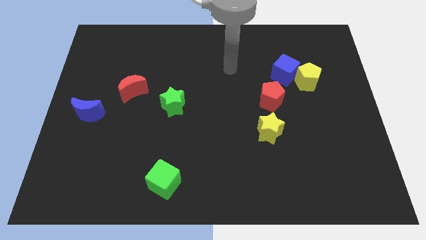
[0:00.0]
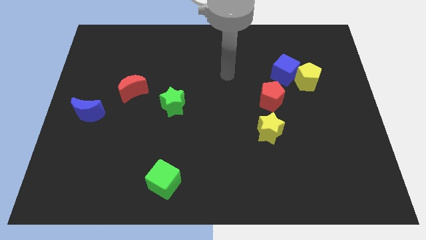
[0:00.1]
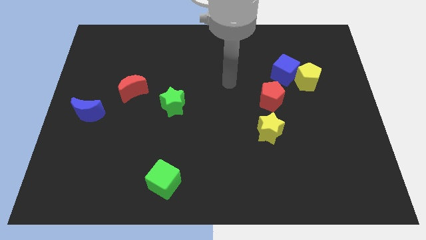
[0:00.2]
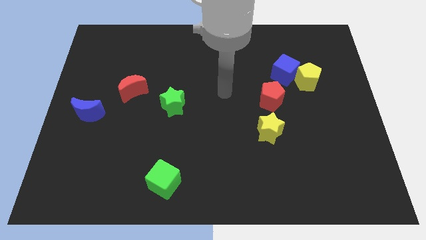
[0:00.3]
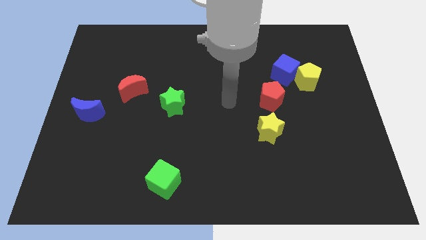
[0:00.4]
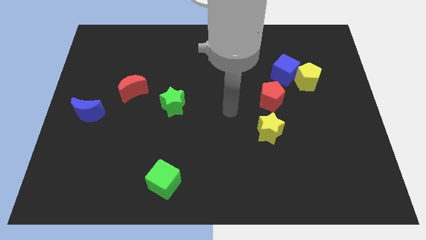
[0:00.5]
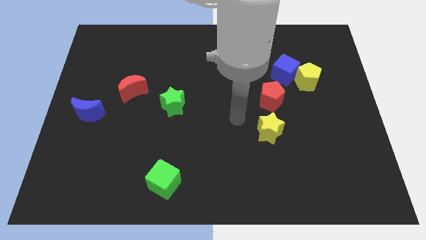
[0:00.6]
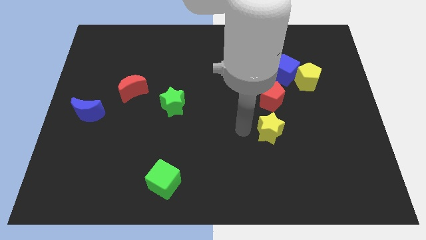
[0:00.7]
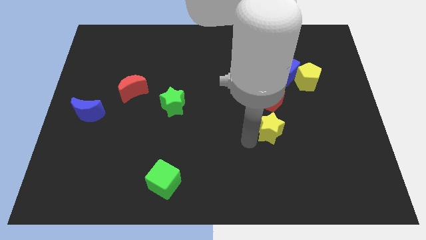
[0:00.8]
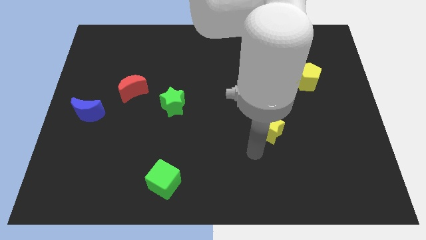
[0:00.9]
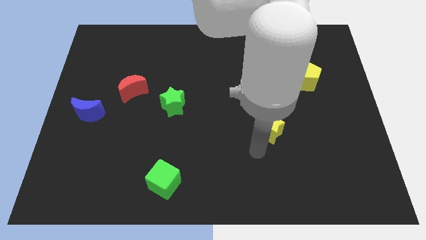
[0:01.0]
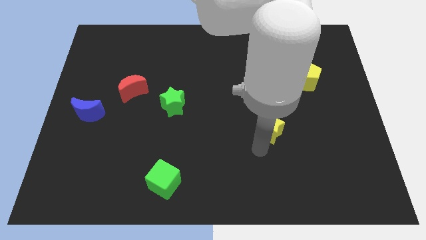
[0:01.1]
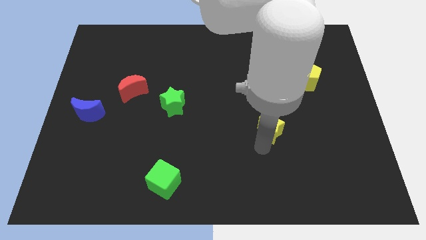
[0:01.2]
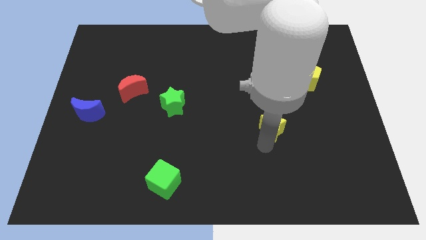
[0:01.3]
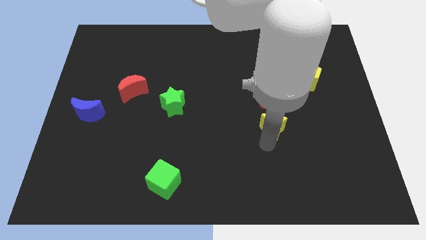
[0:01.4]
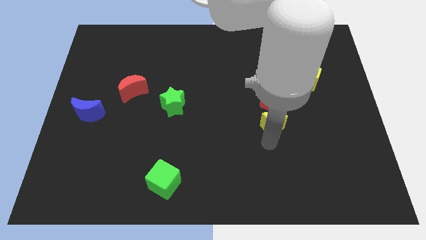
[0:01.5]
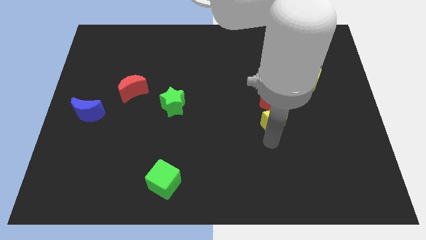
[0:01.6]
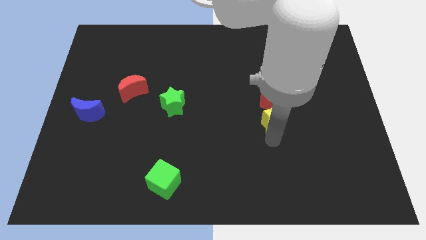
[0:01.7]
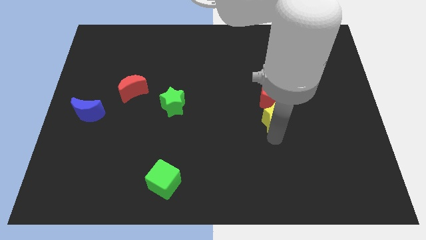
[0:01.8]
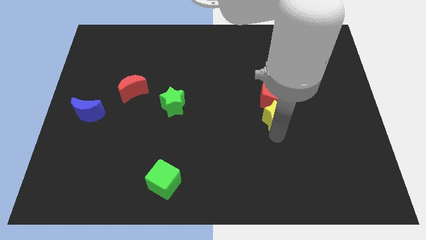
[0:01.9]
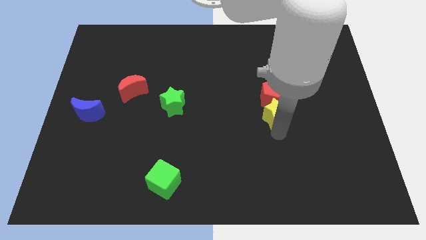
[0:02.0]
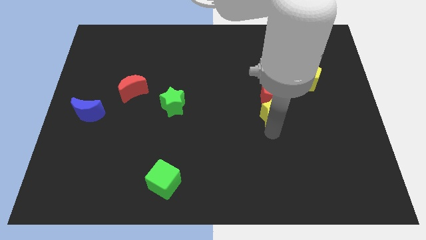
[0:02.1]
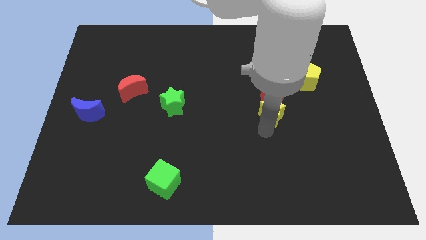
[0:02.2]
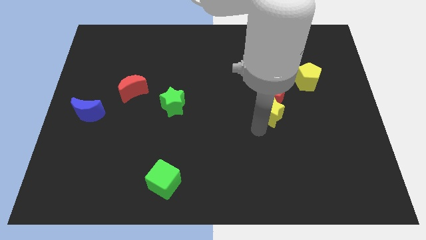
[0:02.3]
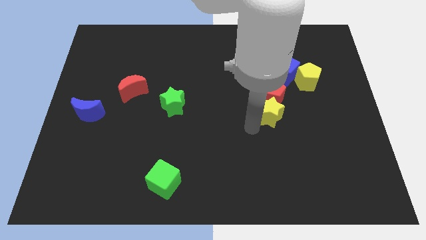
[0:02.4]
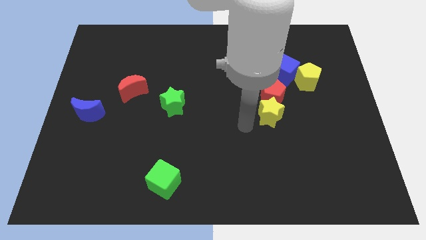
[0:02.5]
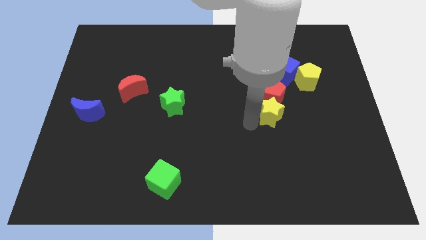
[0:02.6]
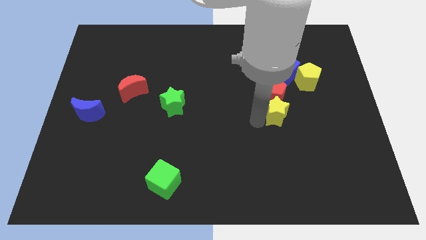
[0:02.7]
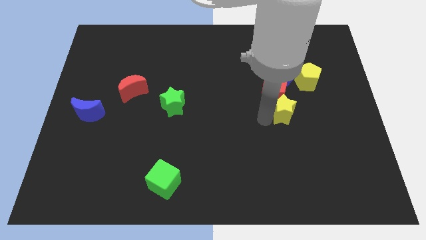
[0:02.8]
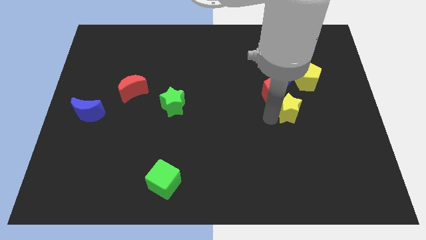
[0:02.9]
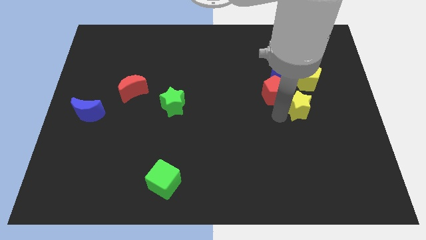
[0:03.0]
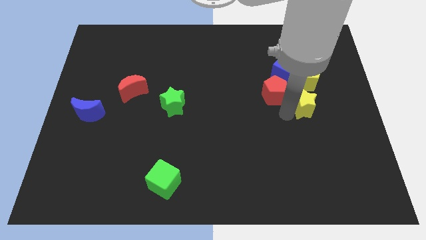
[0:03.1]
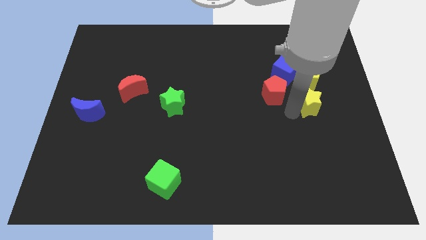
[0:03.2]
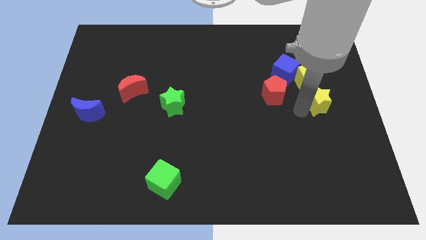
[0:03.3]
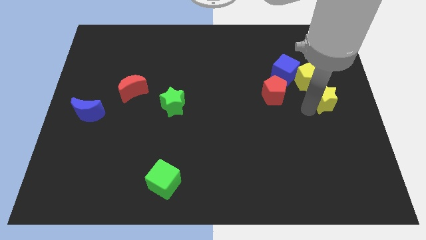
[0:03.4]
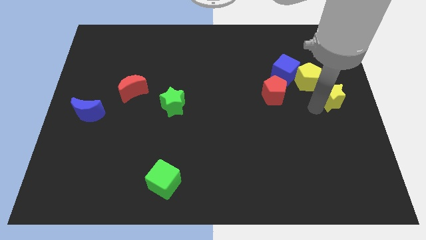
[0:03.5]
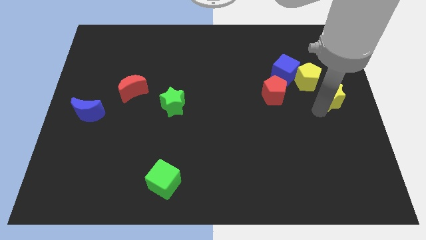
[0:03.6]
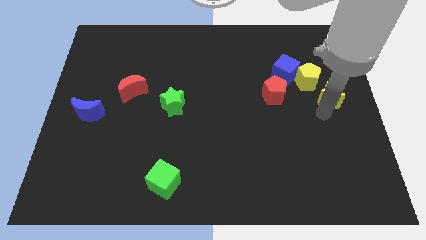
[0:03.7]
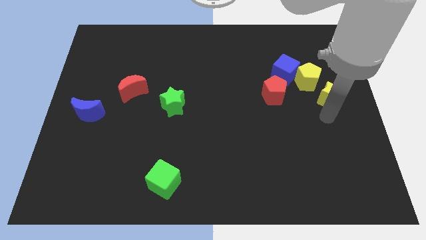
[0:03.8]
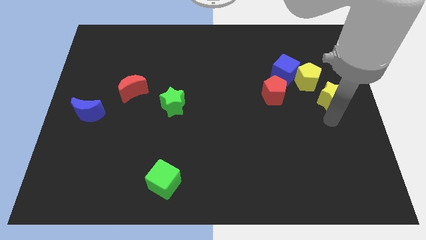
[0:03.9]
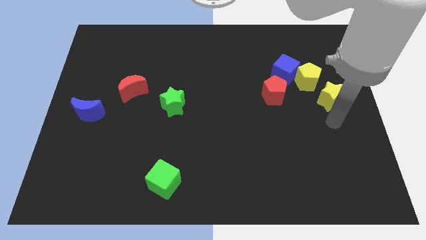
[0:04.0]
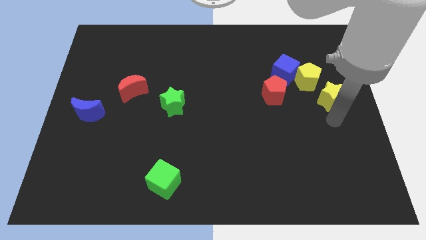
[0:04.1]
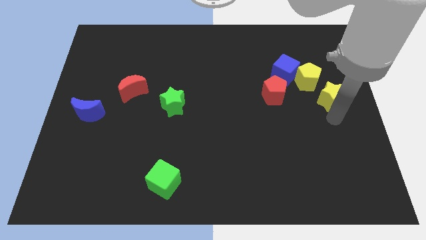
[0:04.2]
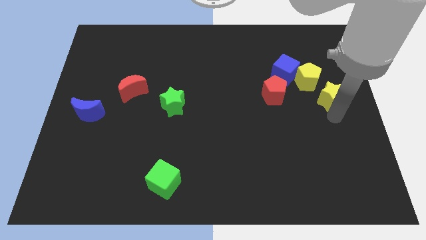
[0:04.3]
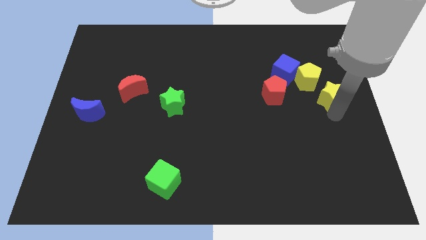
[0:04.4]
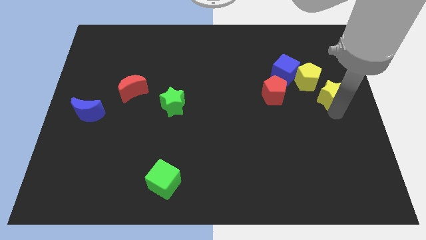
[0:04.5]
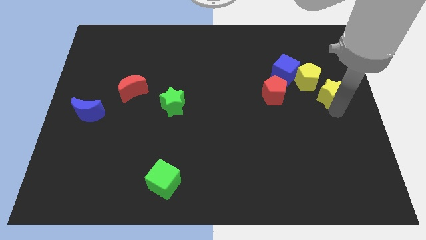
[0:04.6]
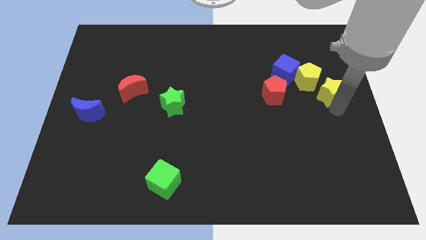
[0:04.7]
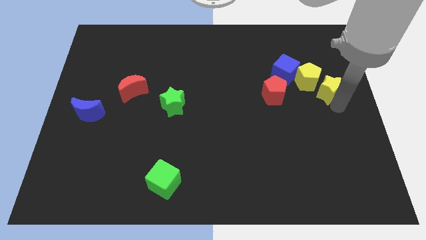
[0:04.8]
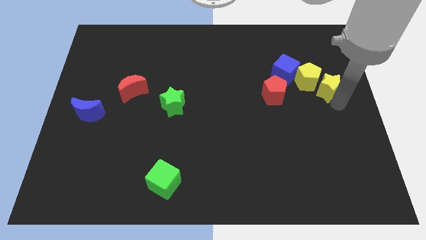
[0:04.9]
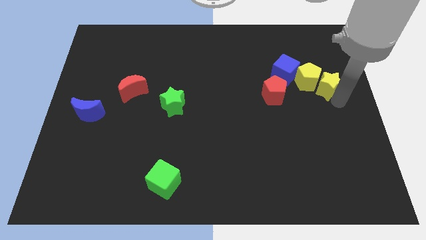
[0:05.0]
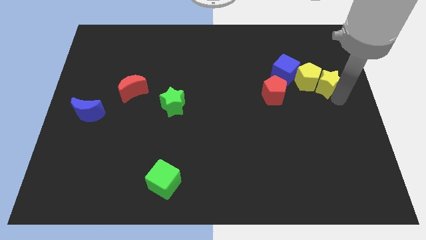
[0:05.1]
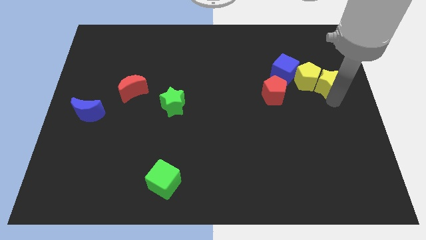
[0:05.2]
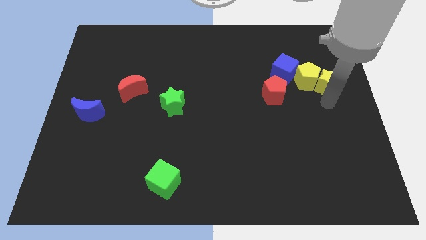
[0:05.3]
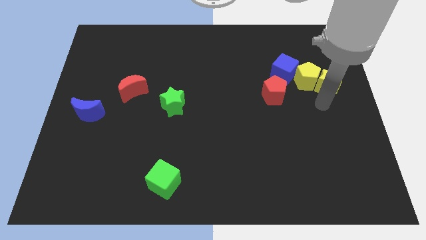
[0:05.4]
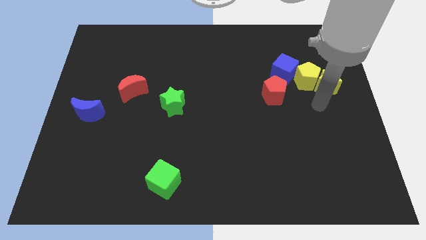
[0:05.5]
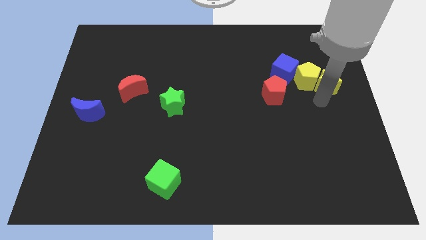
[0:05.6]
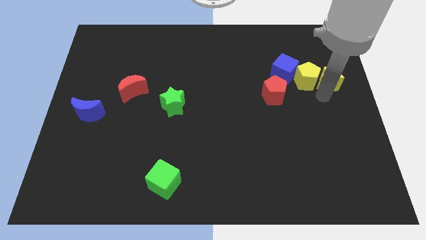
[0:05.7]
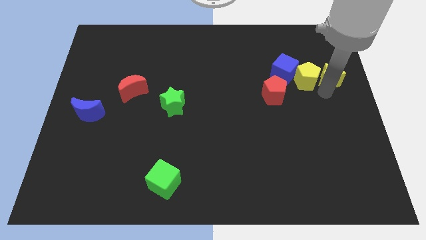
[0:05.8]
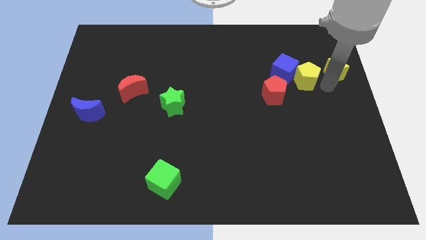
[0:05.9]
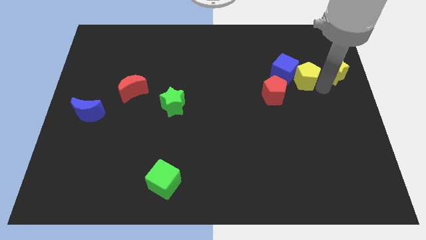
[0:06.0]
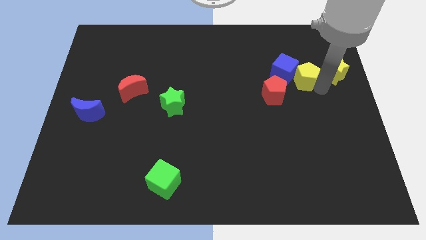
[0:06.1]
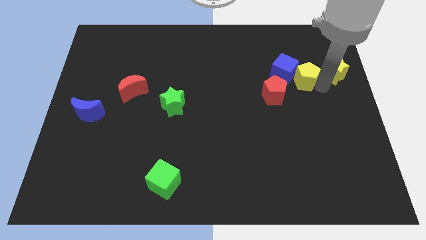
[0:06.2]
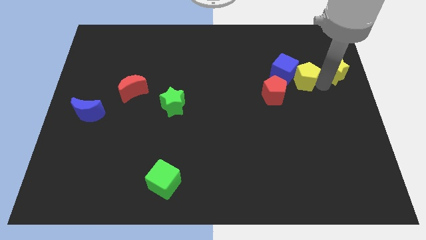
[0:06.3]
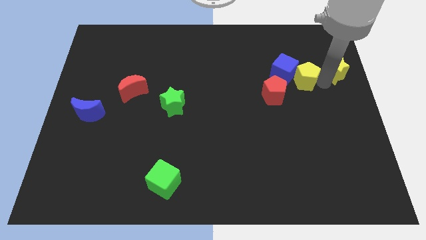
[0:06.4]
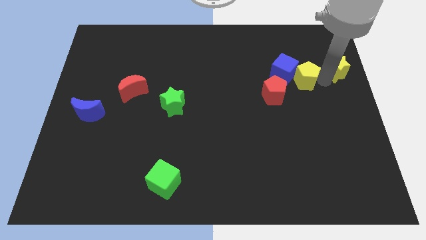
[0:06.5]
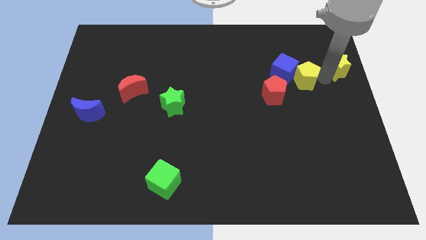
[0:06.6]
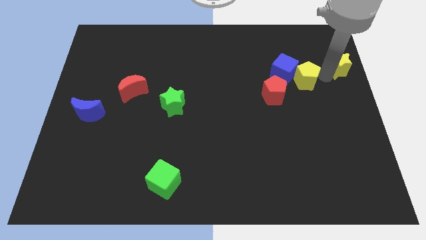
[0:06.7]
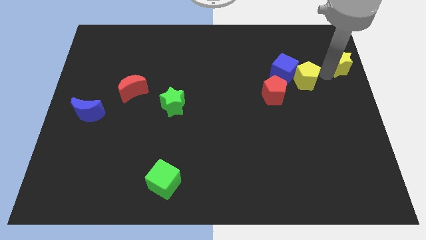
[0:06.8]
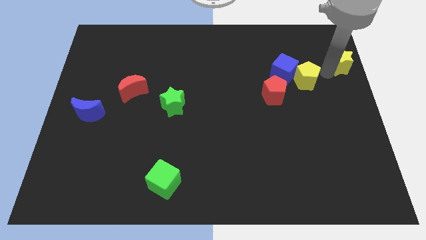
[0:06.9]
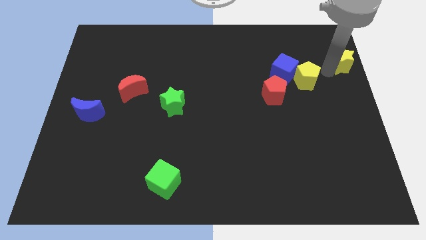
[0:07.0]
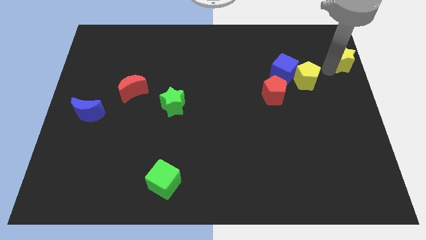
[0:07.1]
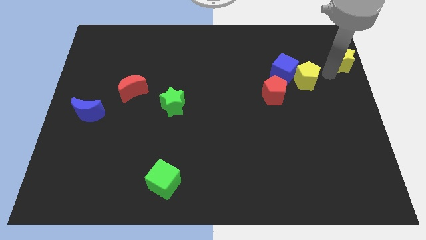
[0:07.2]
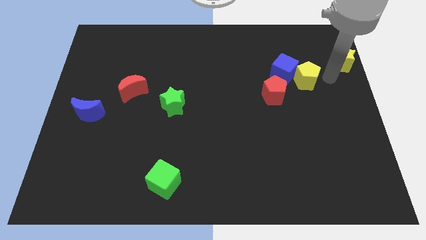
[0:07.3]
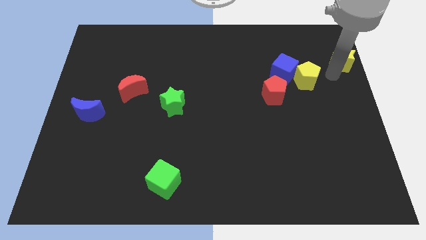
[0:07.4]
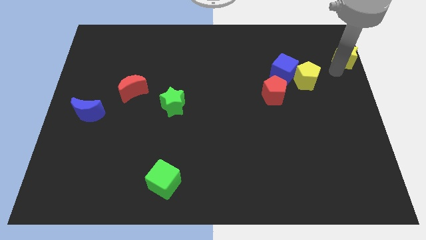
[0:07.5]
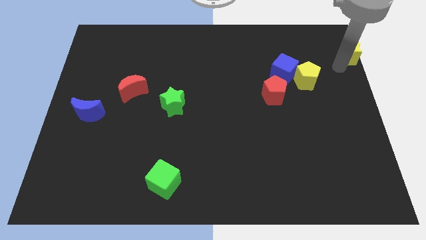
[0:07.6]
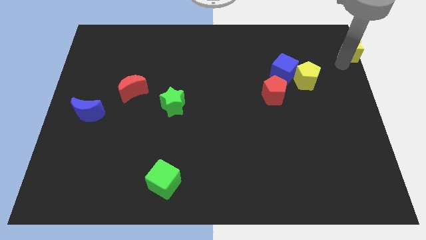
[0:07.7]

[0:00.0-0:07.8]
slide the yellow star to the top right
